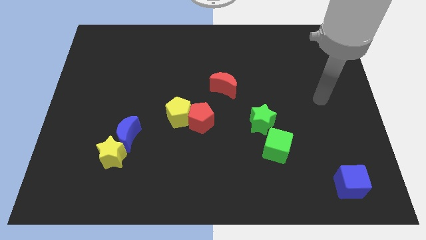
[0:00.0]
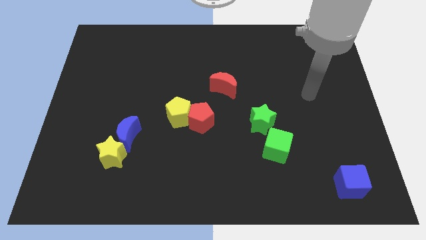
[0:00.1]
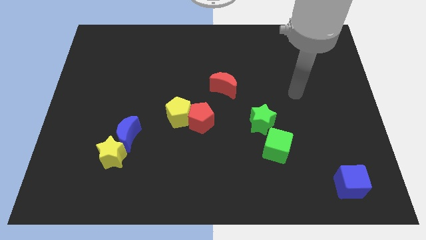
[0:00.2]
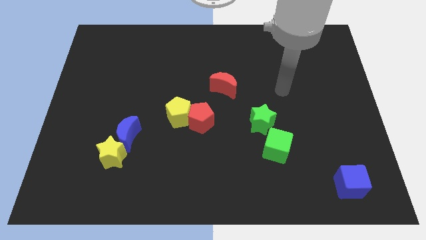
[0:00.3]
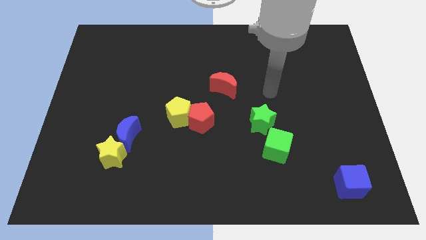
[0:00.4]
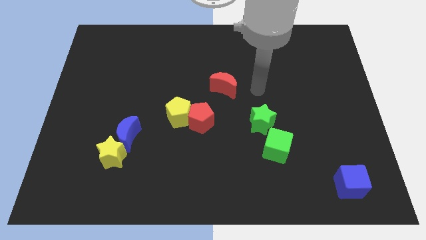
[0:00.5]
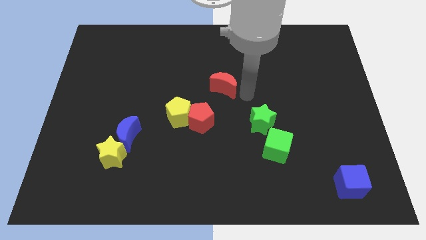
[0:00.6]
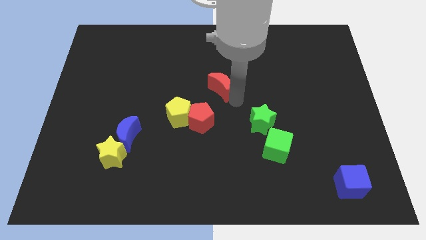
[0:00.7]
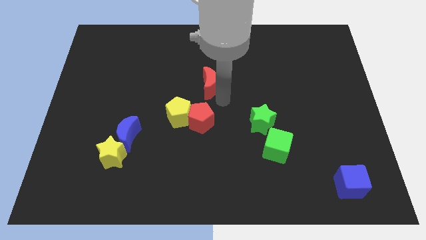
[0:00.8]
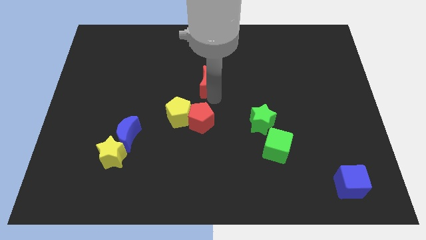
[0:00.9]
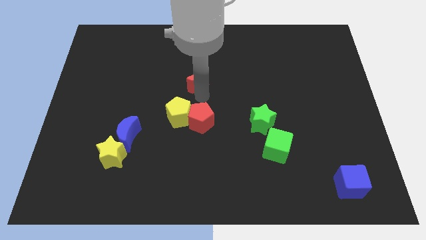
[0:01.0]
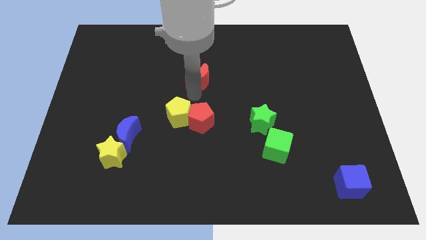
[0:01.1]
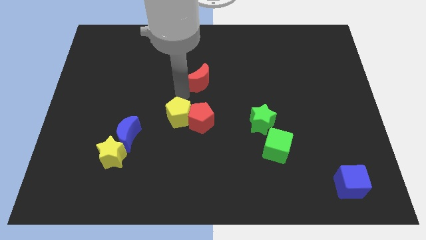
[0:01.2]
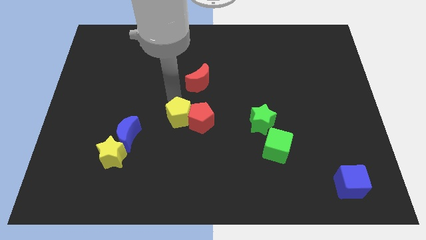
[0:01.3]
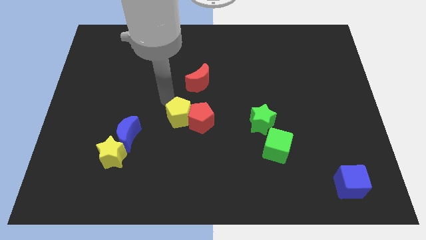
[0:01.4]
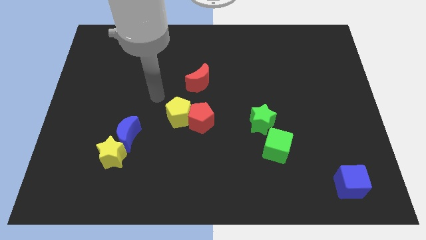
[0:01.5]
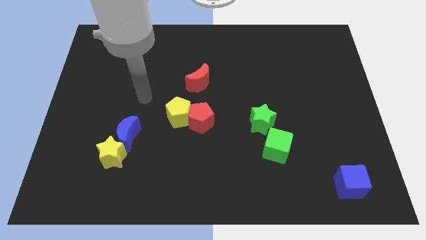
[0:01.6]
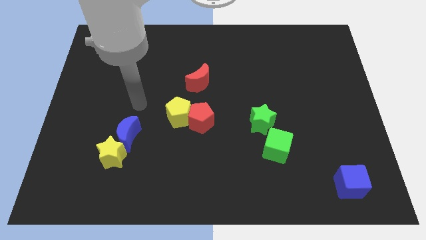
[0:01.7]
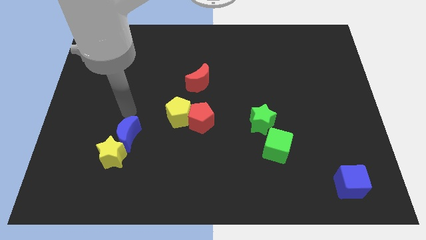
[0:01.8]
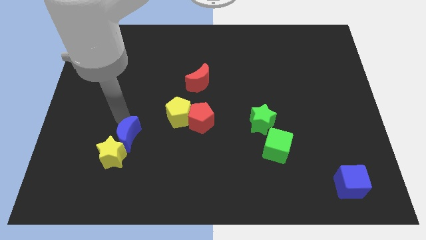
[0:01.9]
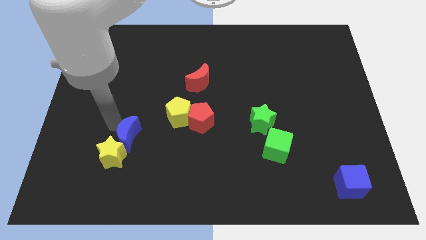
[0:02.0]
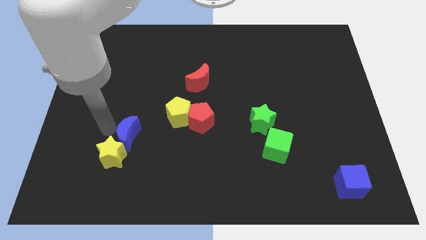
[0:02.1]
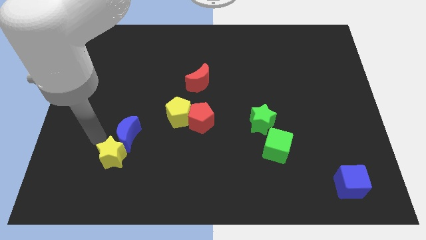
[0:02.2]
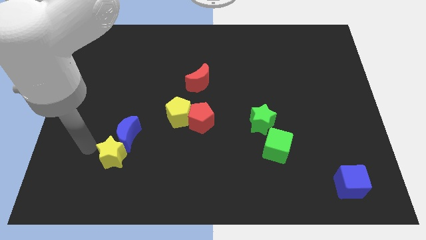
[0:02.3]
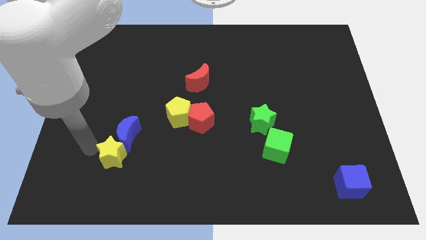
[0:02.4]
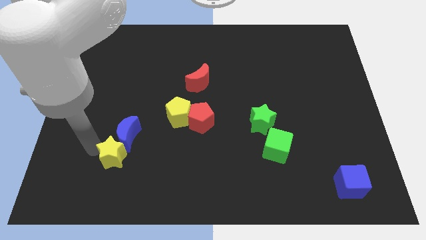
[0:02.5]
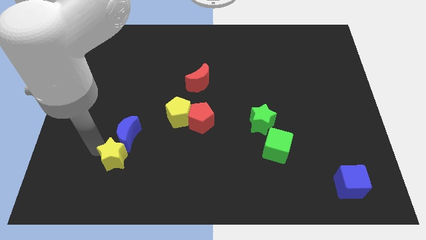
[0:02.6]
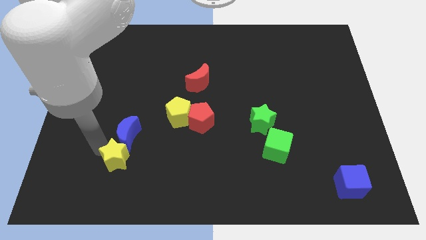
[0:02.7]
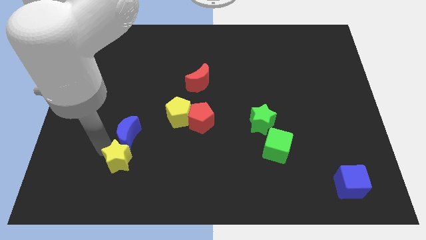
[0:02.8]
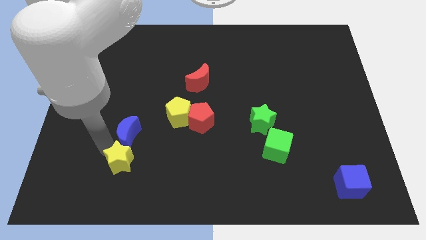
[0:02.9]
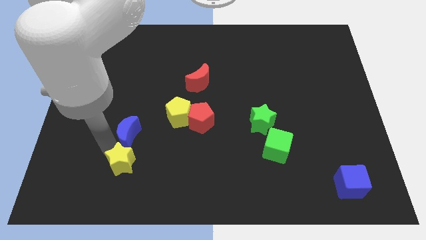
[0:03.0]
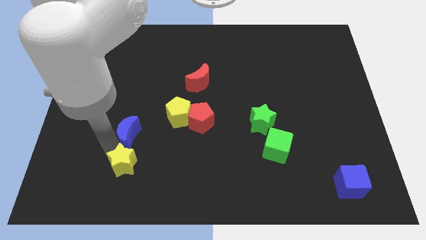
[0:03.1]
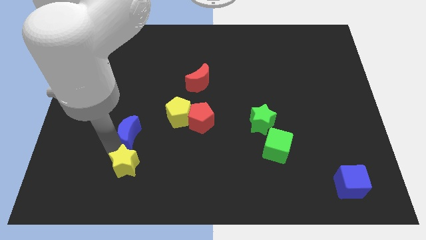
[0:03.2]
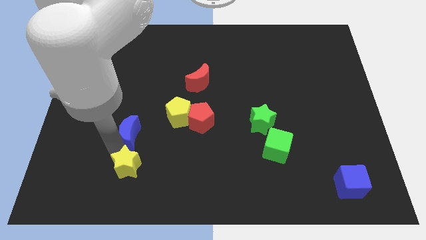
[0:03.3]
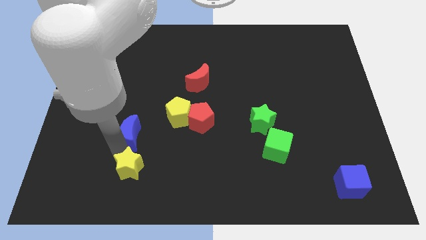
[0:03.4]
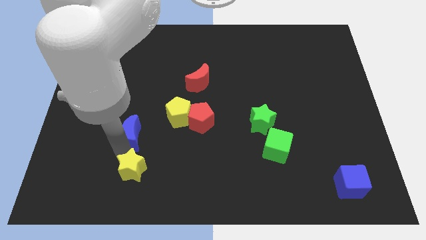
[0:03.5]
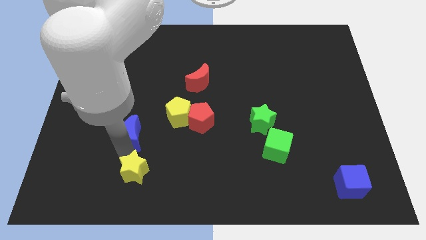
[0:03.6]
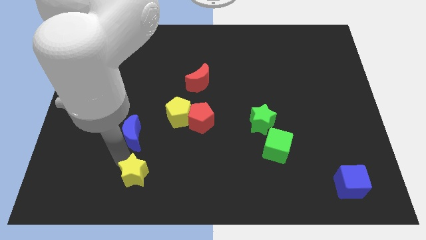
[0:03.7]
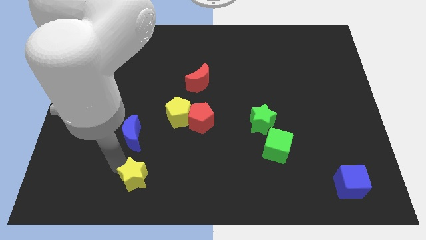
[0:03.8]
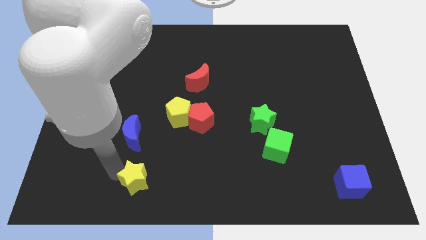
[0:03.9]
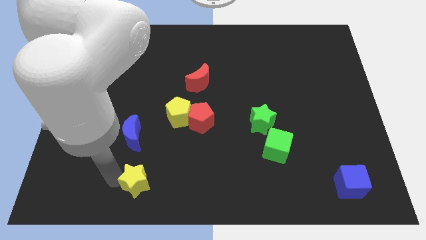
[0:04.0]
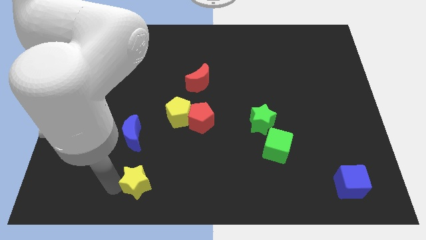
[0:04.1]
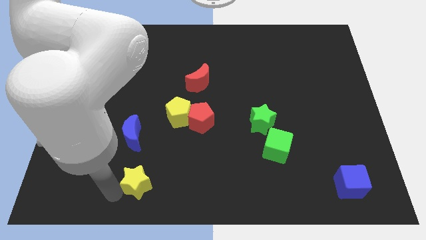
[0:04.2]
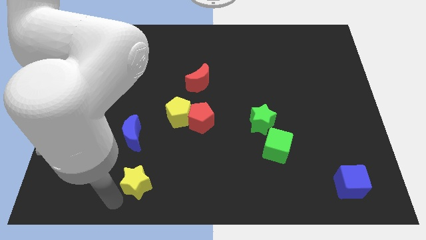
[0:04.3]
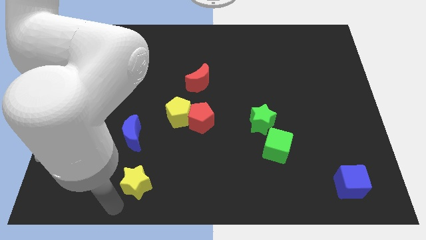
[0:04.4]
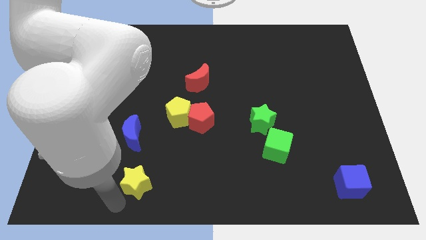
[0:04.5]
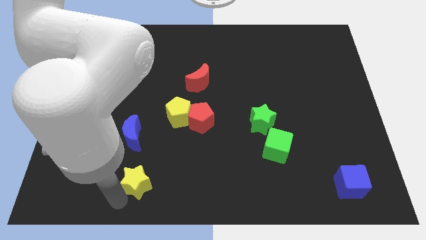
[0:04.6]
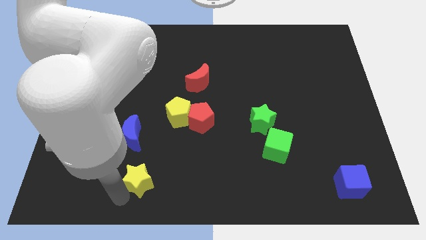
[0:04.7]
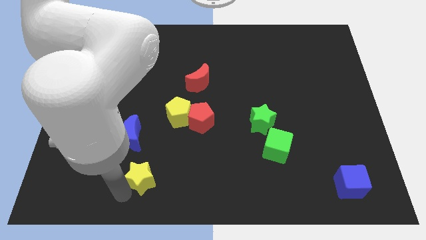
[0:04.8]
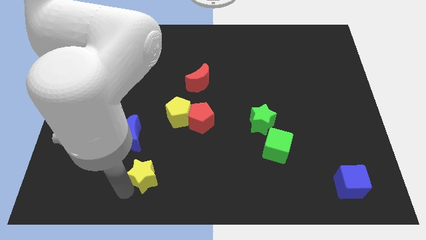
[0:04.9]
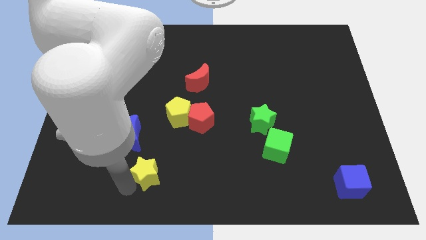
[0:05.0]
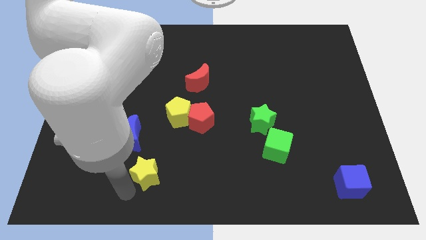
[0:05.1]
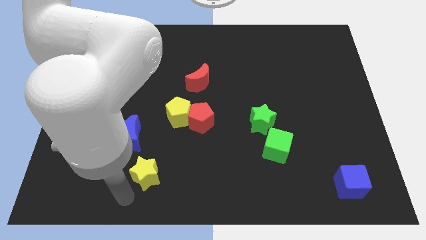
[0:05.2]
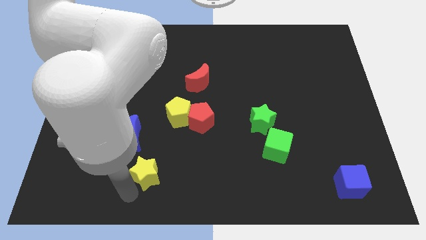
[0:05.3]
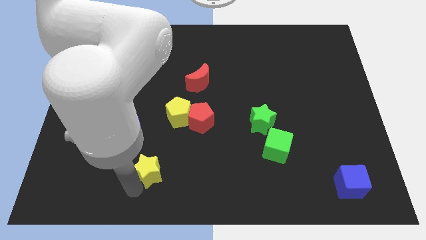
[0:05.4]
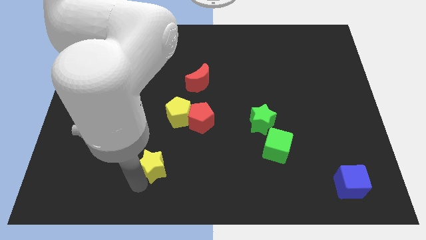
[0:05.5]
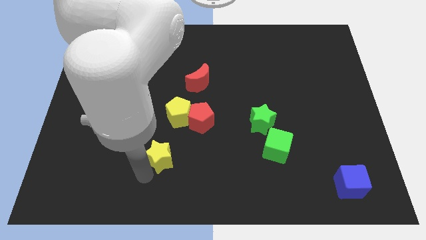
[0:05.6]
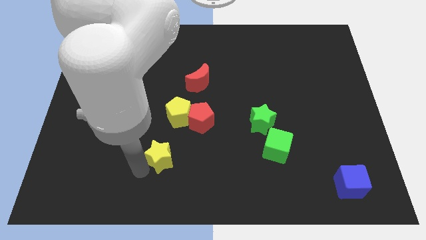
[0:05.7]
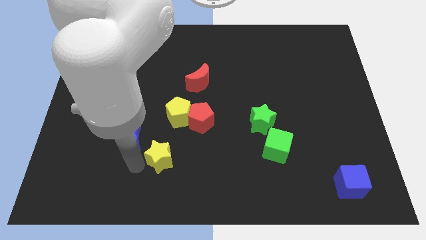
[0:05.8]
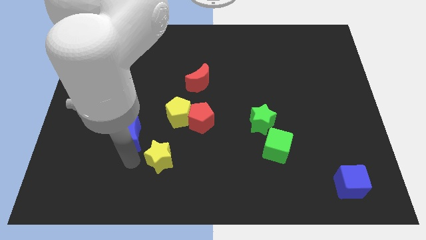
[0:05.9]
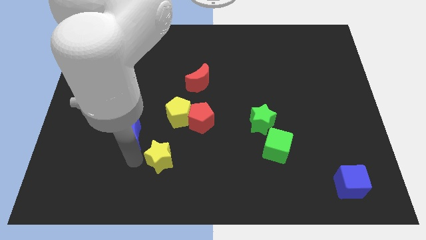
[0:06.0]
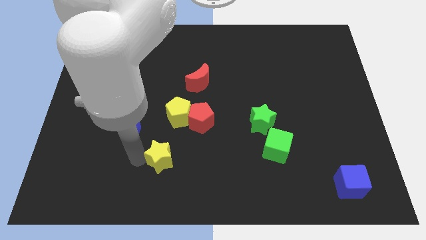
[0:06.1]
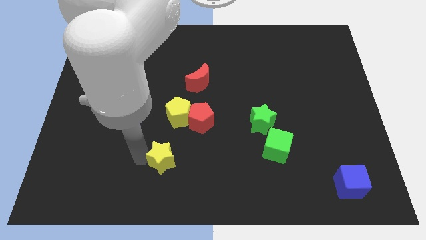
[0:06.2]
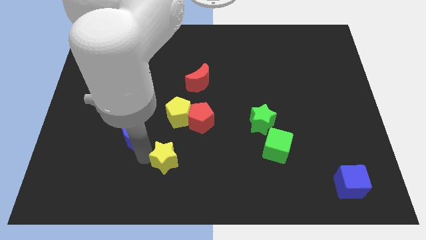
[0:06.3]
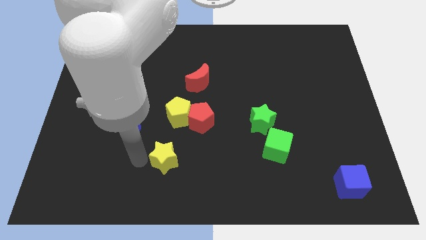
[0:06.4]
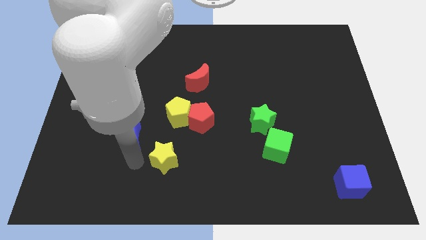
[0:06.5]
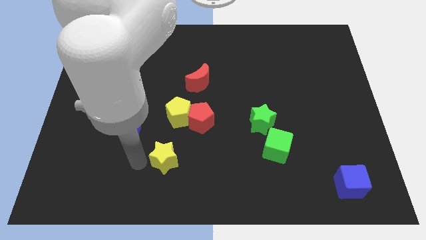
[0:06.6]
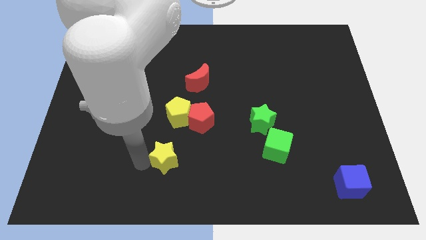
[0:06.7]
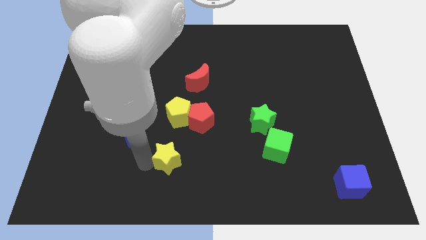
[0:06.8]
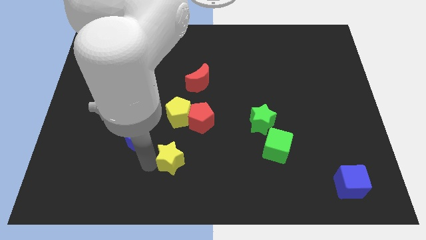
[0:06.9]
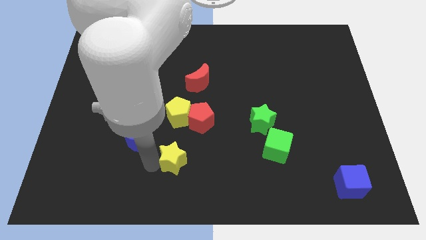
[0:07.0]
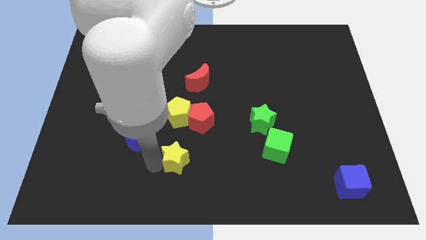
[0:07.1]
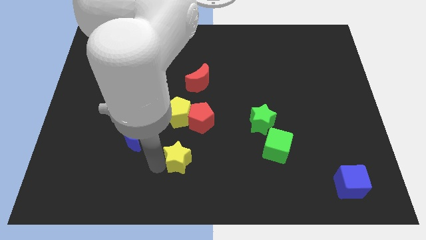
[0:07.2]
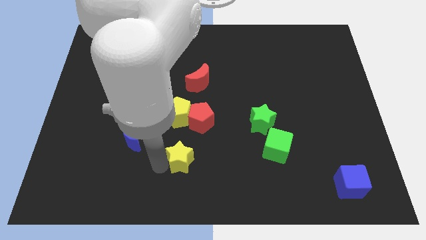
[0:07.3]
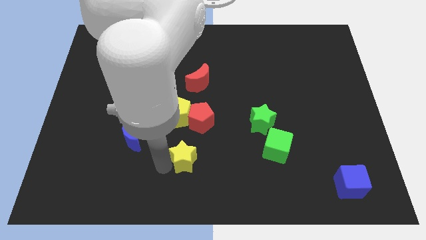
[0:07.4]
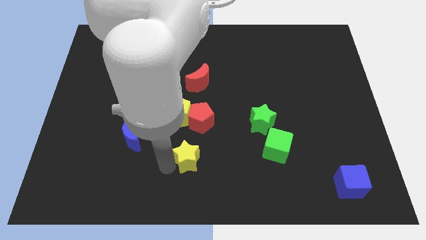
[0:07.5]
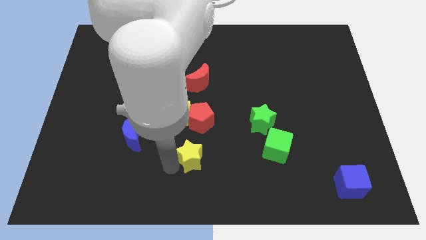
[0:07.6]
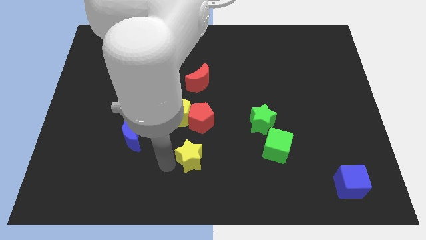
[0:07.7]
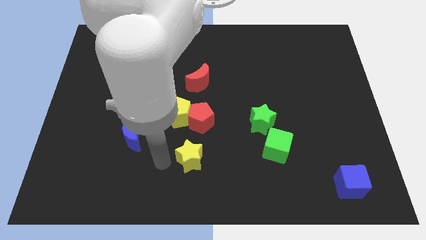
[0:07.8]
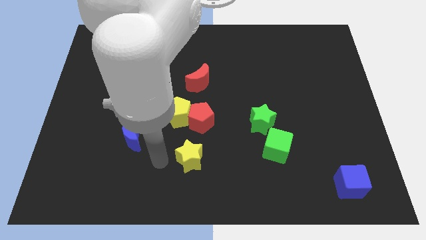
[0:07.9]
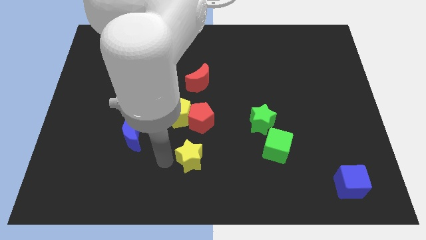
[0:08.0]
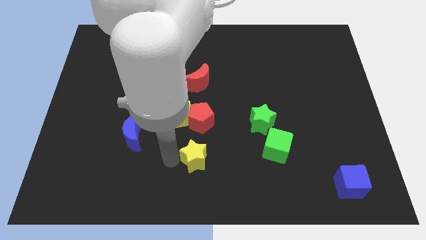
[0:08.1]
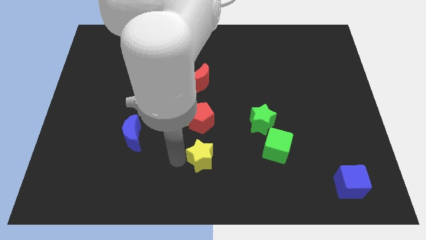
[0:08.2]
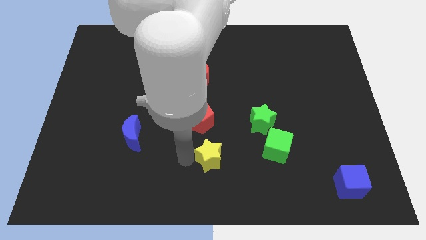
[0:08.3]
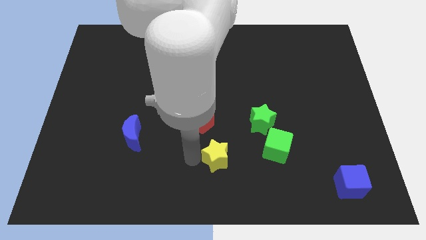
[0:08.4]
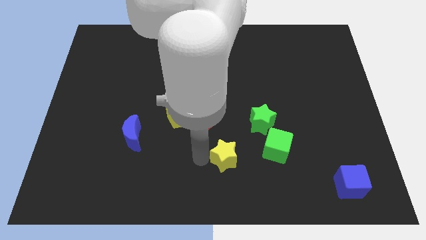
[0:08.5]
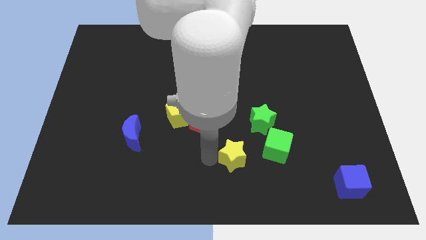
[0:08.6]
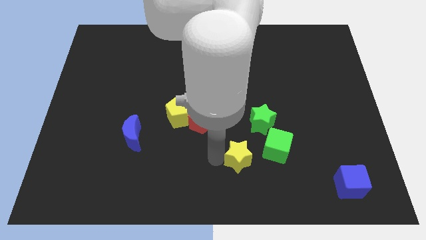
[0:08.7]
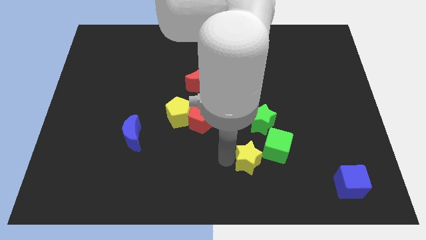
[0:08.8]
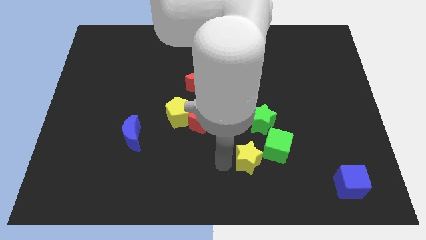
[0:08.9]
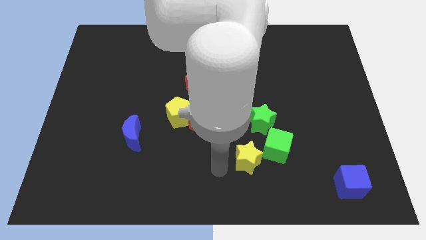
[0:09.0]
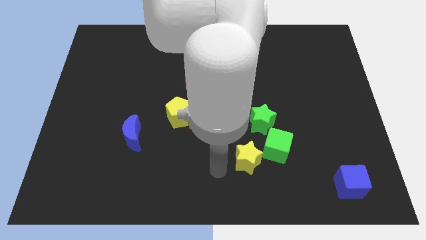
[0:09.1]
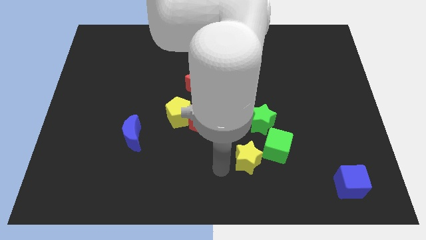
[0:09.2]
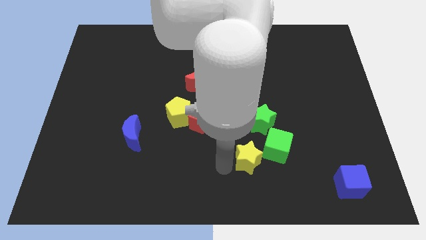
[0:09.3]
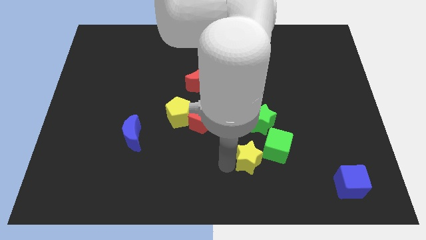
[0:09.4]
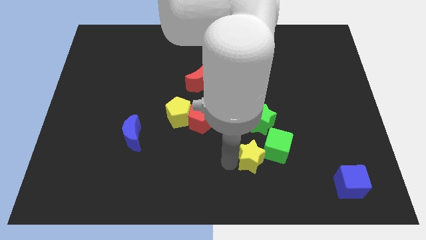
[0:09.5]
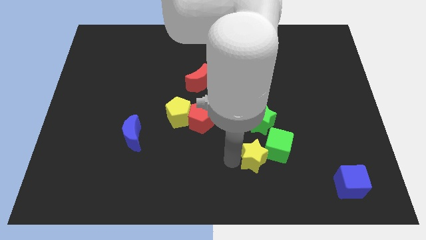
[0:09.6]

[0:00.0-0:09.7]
put the yellow star next to the green cube
